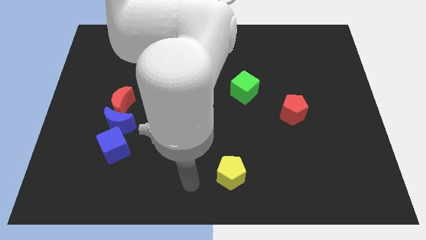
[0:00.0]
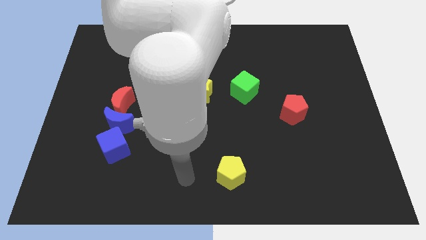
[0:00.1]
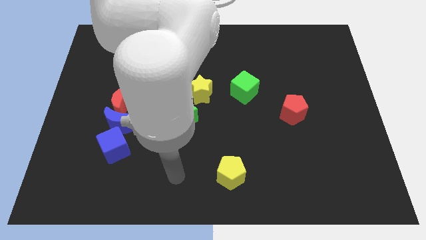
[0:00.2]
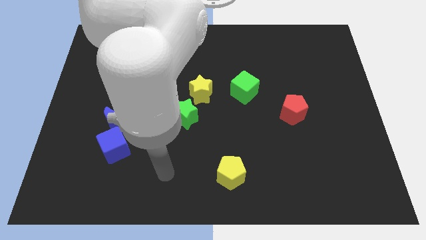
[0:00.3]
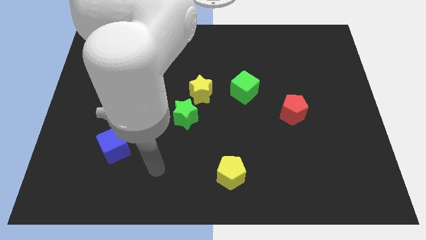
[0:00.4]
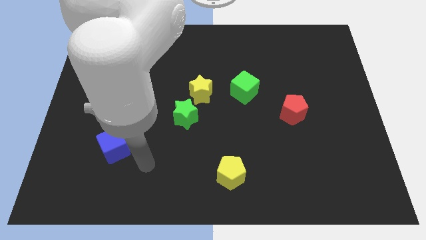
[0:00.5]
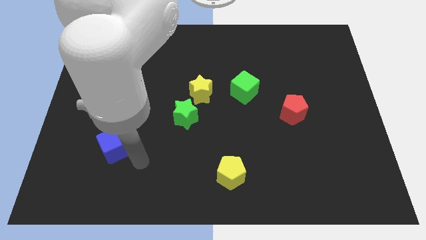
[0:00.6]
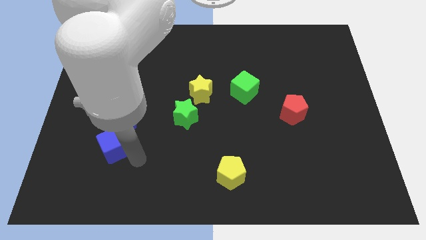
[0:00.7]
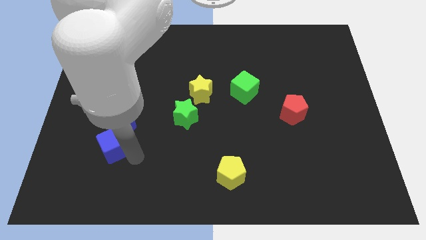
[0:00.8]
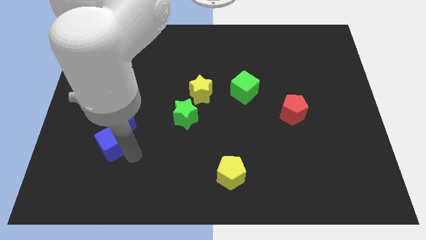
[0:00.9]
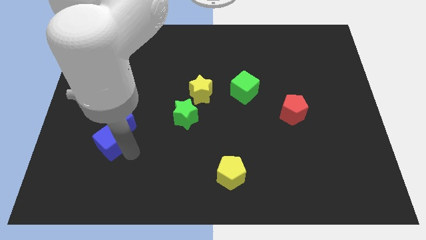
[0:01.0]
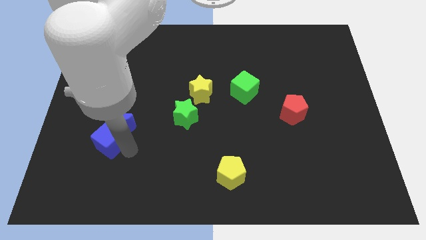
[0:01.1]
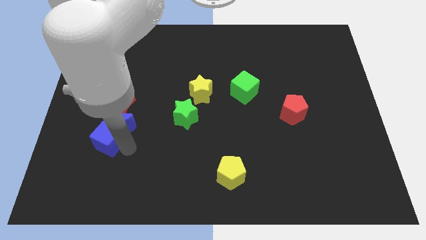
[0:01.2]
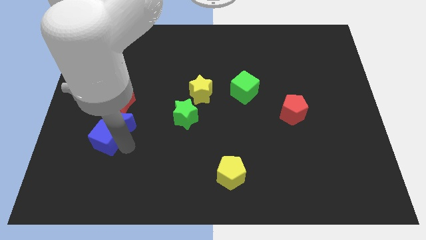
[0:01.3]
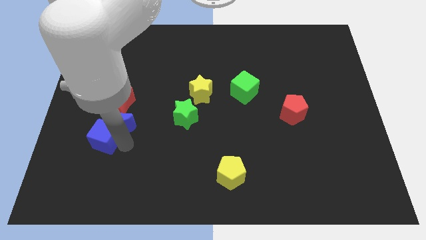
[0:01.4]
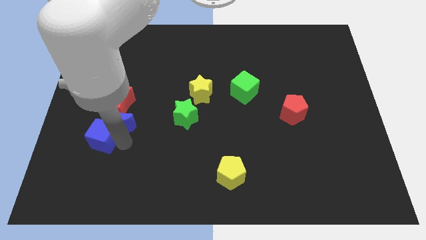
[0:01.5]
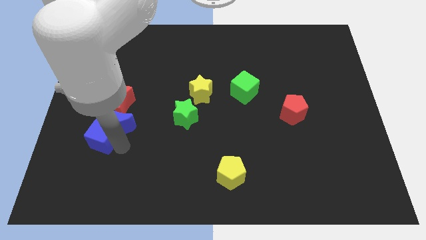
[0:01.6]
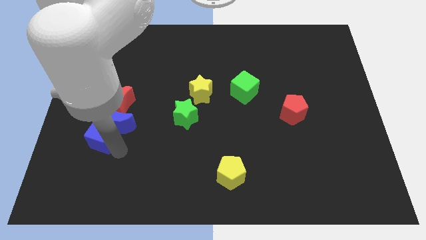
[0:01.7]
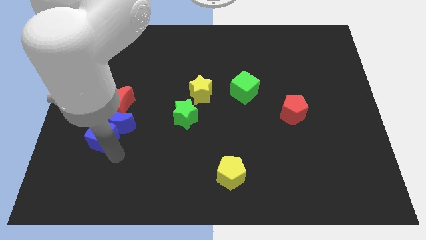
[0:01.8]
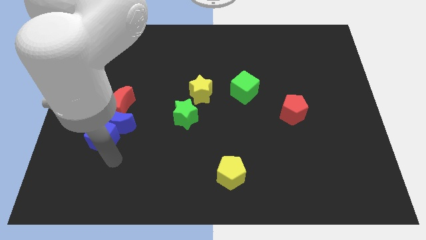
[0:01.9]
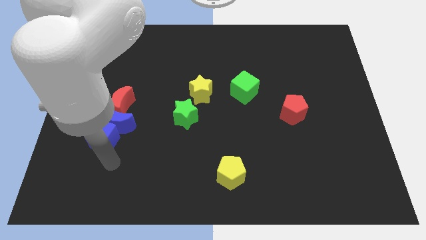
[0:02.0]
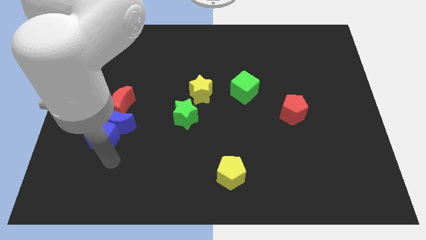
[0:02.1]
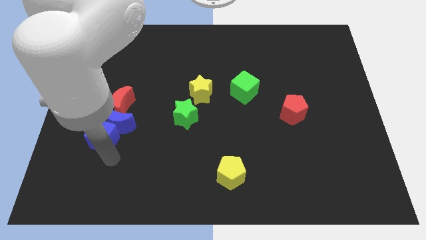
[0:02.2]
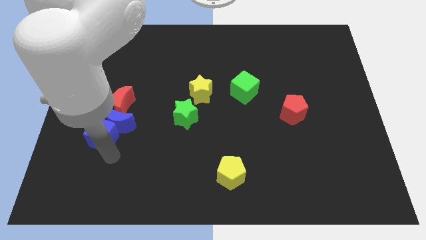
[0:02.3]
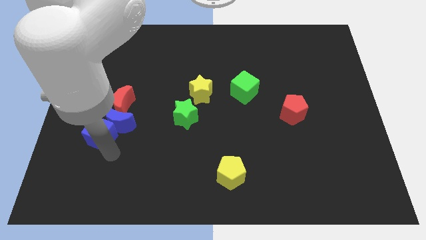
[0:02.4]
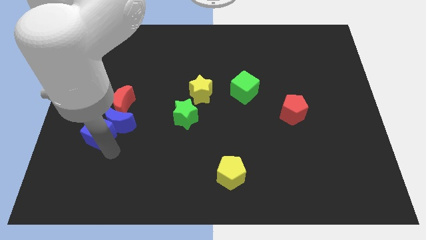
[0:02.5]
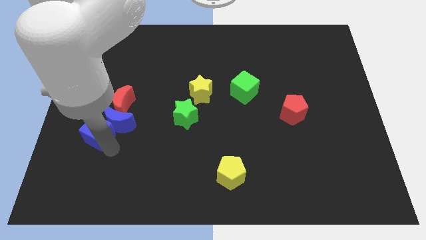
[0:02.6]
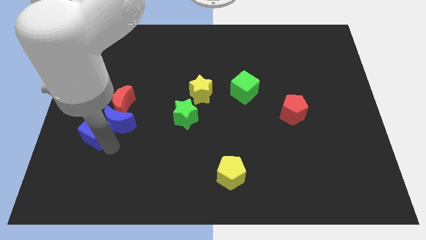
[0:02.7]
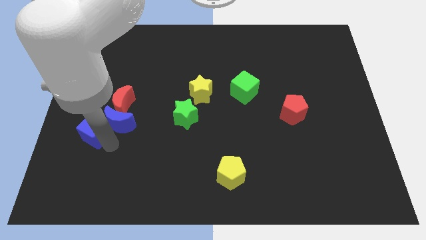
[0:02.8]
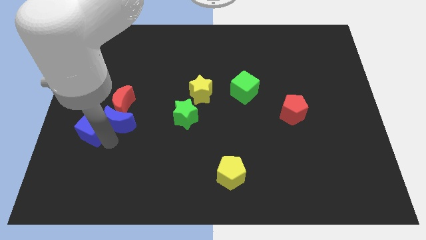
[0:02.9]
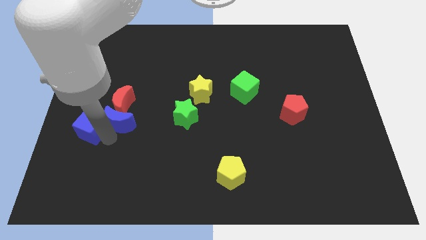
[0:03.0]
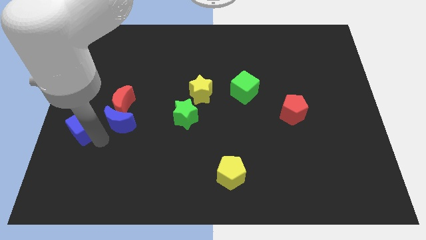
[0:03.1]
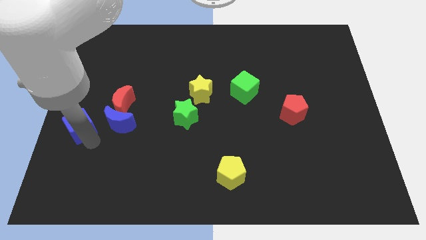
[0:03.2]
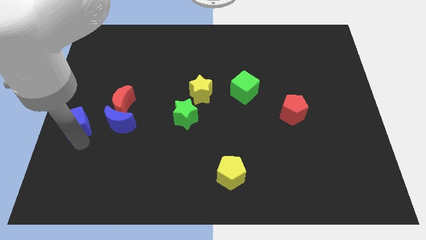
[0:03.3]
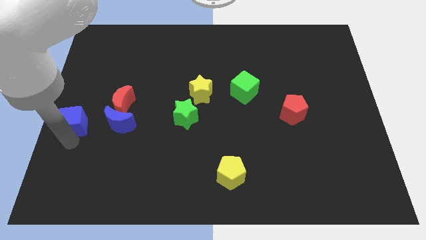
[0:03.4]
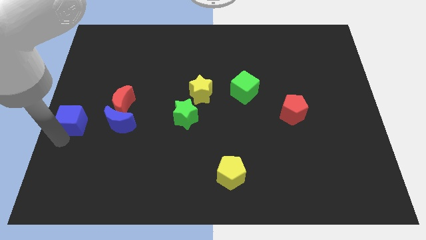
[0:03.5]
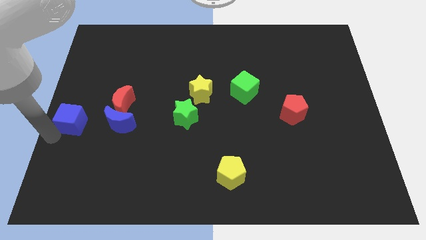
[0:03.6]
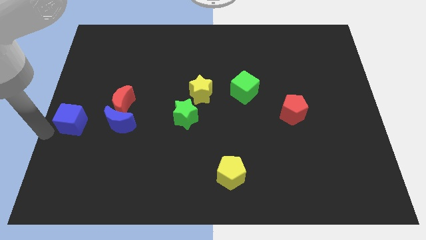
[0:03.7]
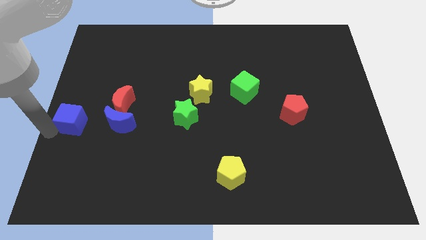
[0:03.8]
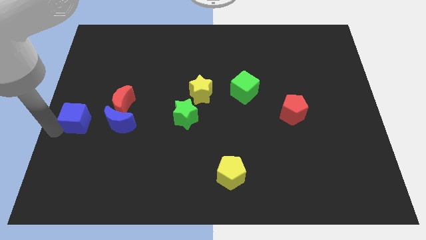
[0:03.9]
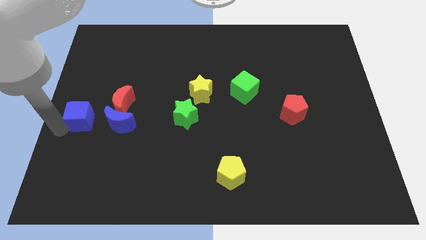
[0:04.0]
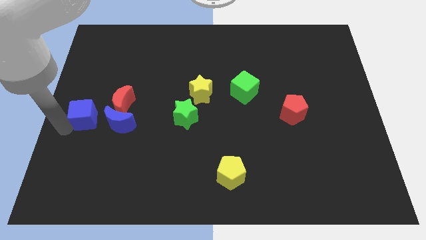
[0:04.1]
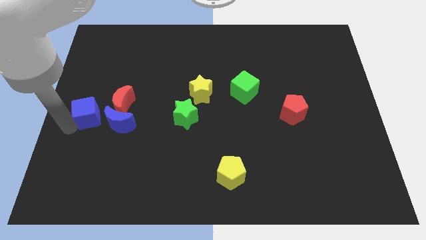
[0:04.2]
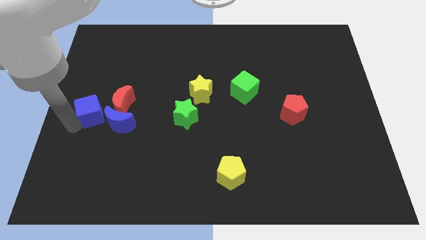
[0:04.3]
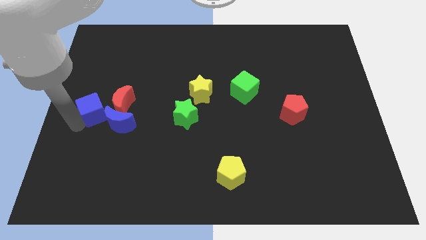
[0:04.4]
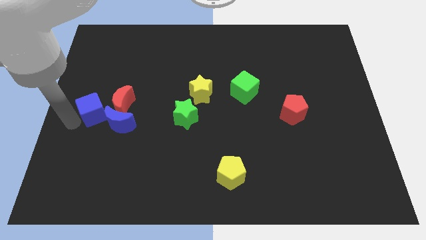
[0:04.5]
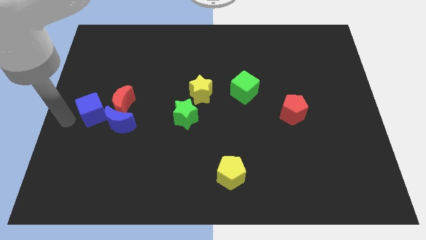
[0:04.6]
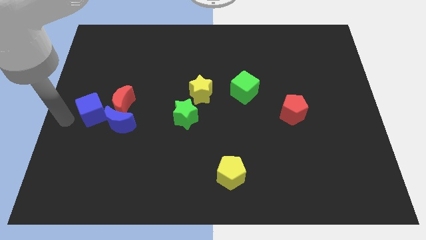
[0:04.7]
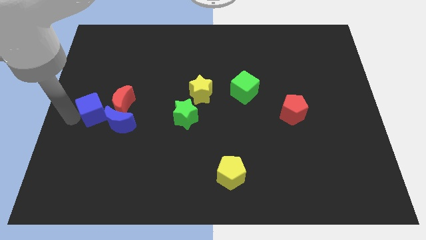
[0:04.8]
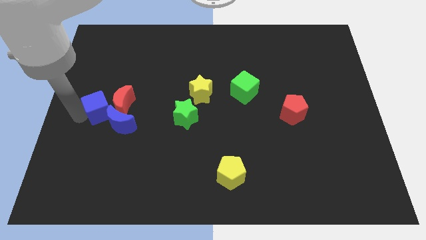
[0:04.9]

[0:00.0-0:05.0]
push the blue cube towards the red moon

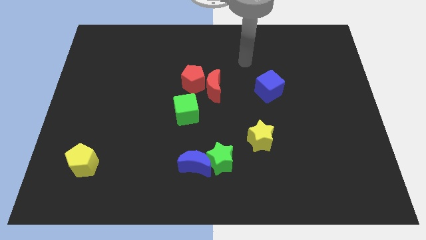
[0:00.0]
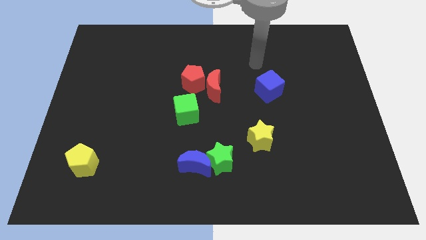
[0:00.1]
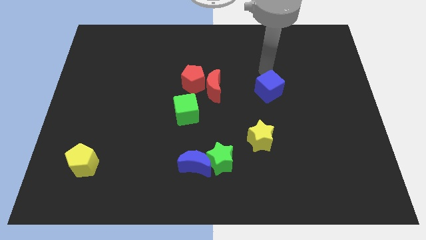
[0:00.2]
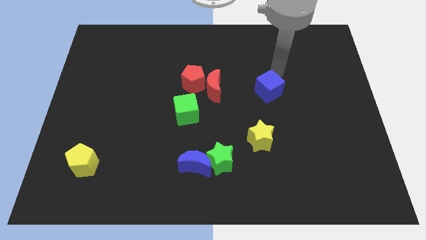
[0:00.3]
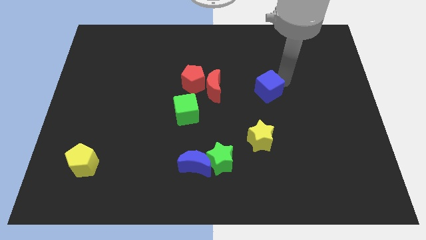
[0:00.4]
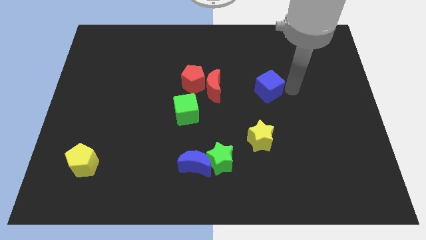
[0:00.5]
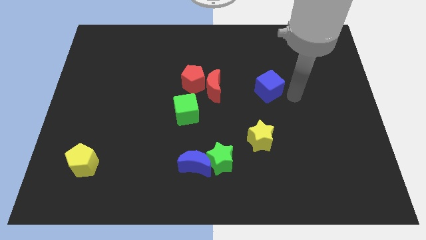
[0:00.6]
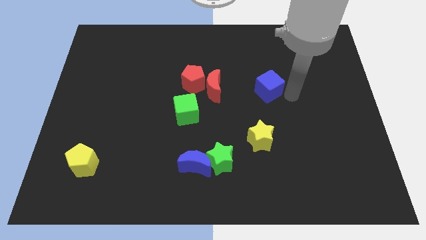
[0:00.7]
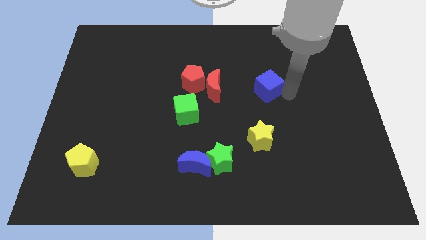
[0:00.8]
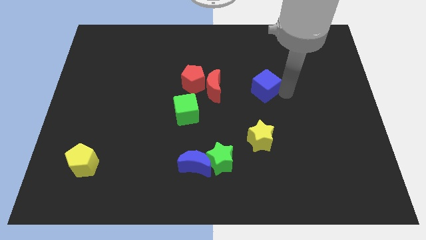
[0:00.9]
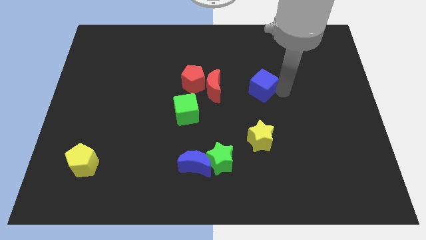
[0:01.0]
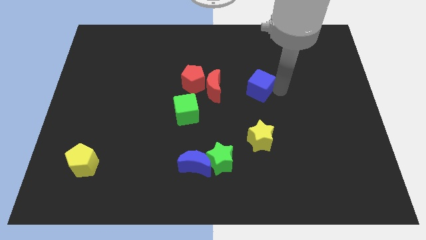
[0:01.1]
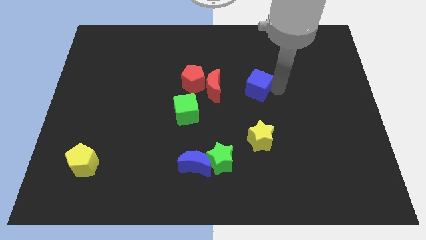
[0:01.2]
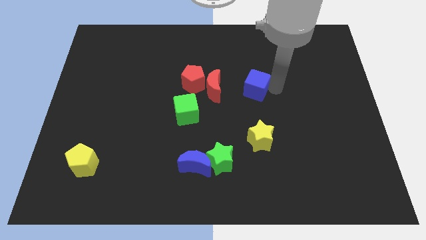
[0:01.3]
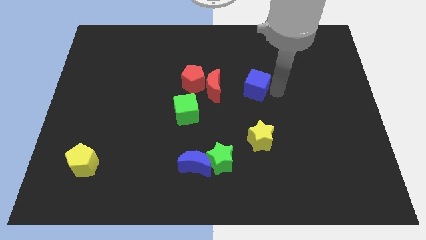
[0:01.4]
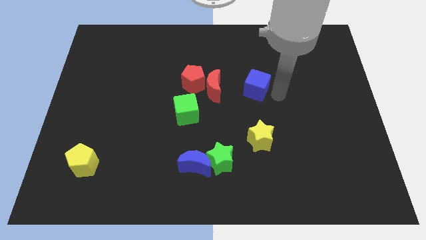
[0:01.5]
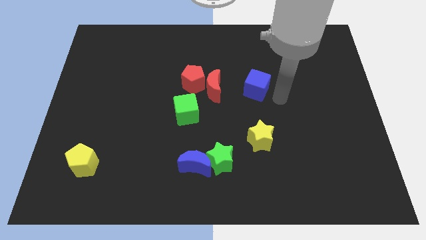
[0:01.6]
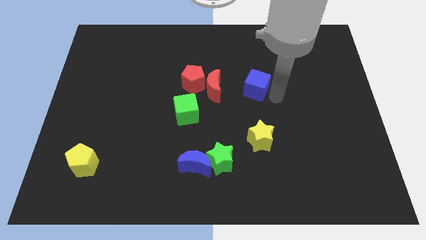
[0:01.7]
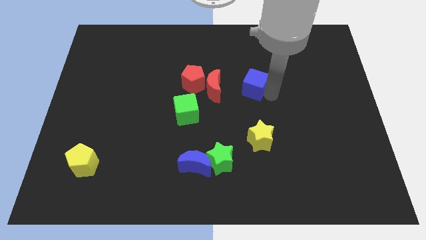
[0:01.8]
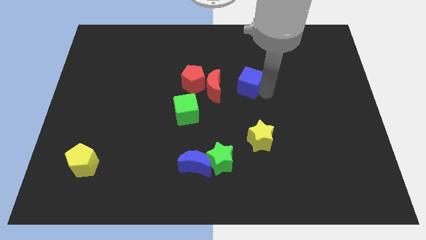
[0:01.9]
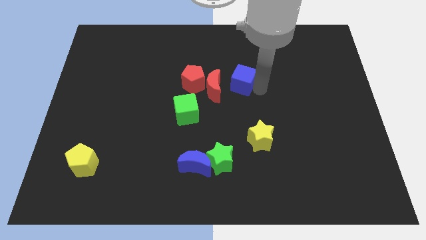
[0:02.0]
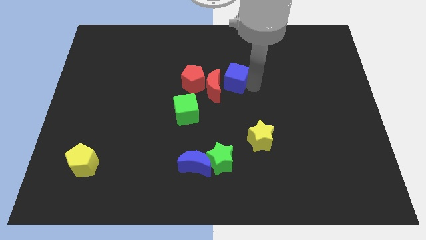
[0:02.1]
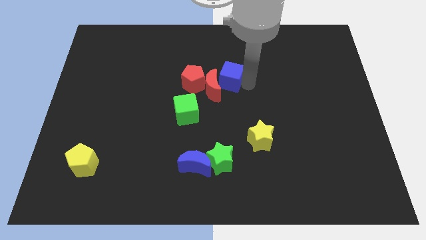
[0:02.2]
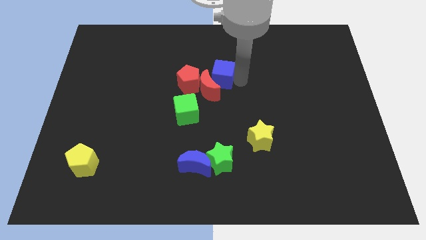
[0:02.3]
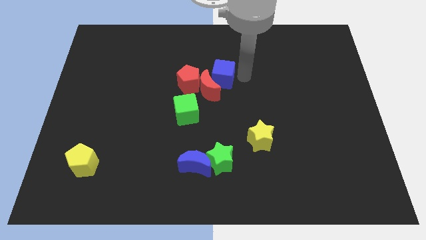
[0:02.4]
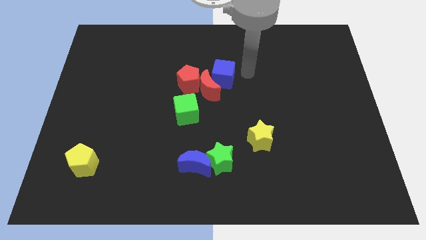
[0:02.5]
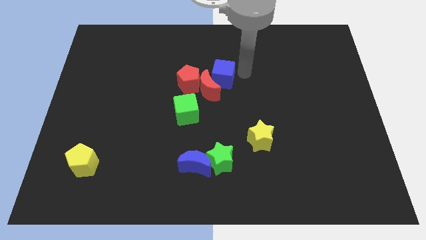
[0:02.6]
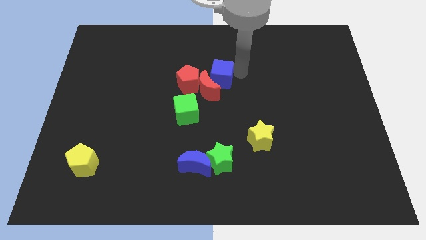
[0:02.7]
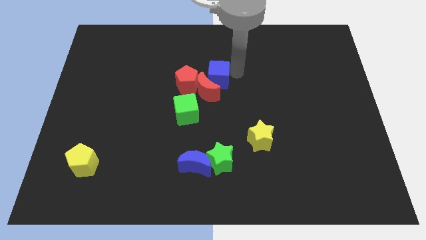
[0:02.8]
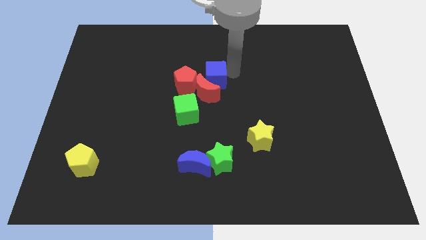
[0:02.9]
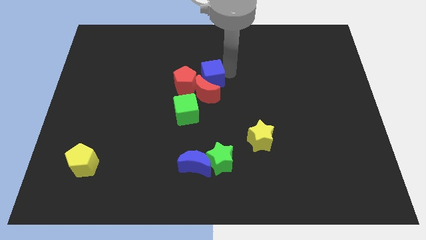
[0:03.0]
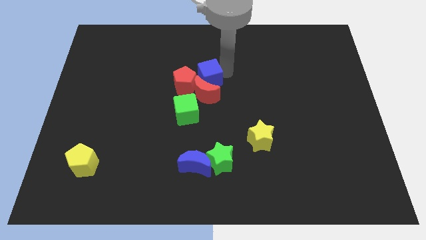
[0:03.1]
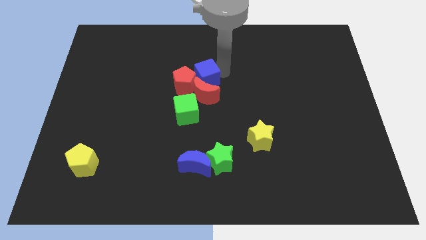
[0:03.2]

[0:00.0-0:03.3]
move the blue cube close to the red pentagon
